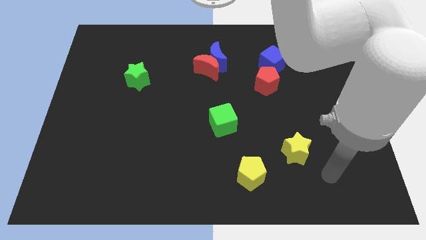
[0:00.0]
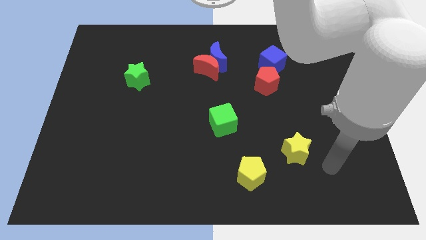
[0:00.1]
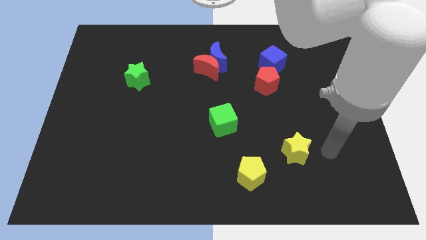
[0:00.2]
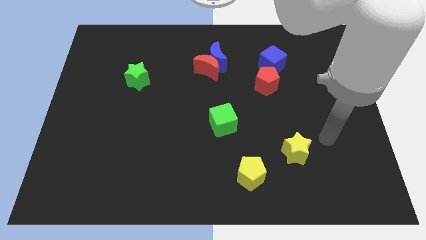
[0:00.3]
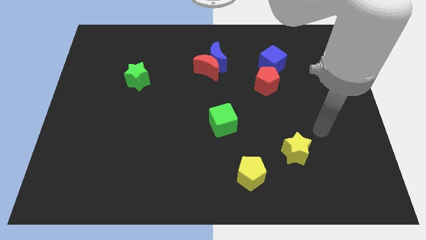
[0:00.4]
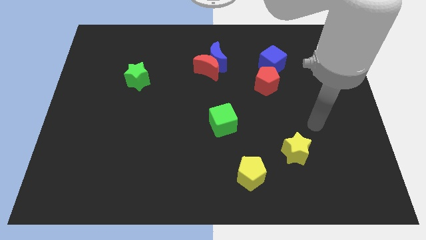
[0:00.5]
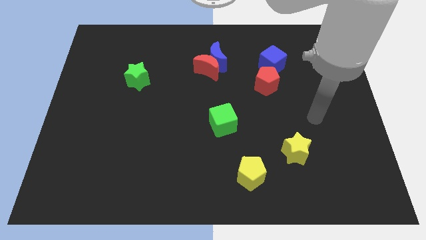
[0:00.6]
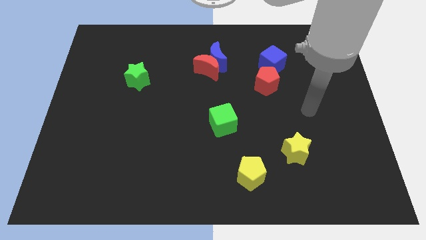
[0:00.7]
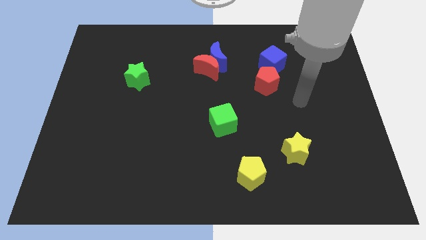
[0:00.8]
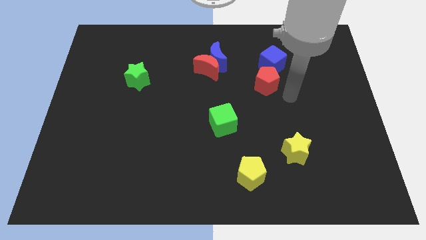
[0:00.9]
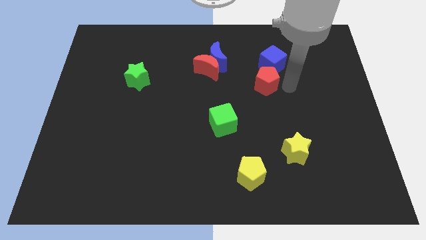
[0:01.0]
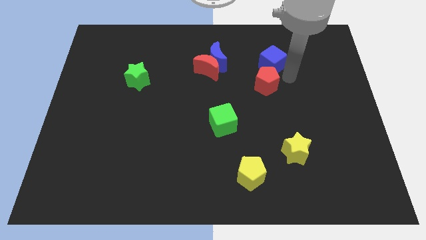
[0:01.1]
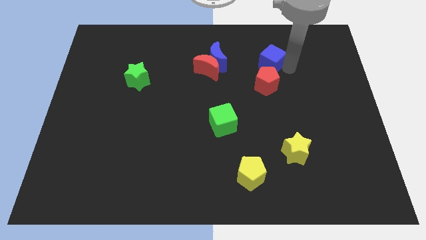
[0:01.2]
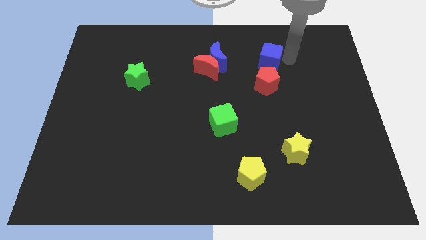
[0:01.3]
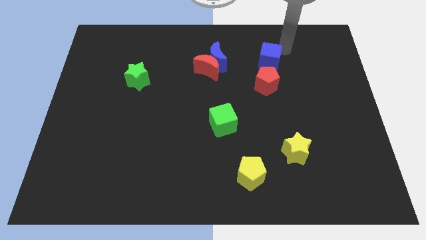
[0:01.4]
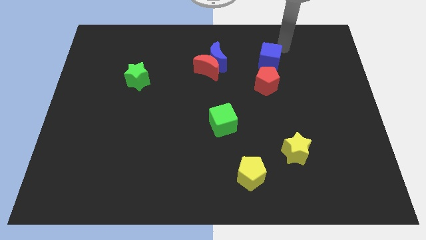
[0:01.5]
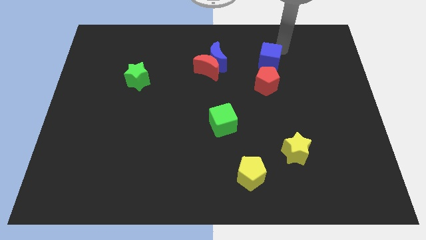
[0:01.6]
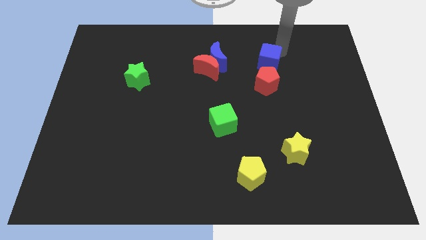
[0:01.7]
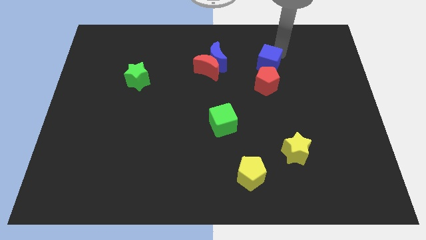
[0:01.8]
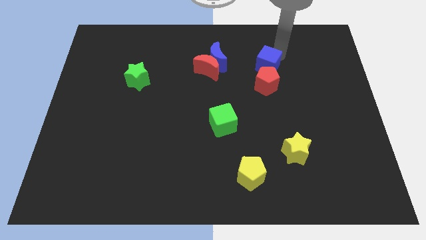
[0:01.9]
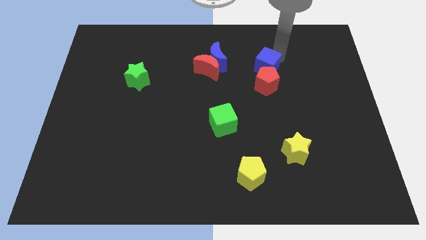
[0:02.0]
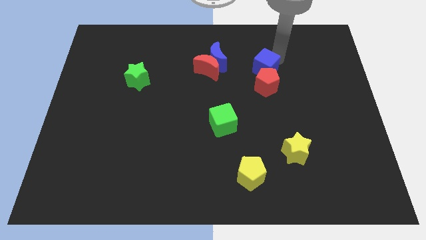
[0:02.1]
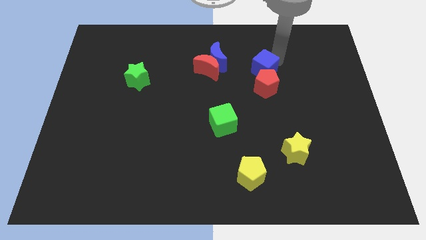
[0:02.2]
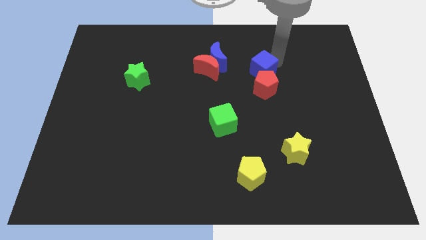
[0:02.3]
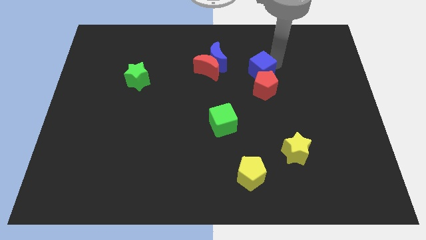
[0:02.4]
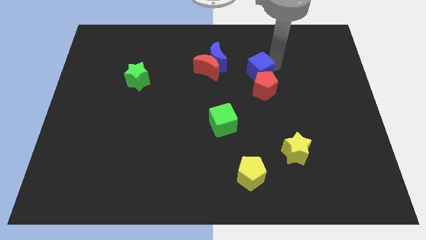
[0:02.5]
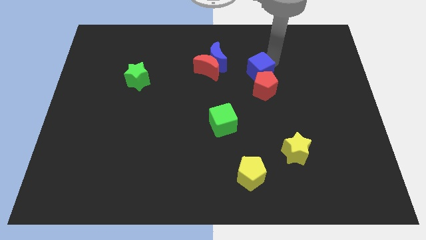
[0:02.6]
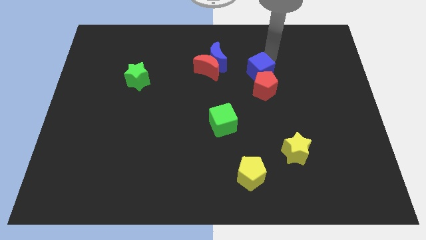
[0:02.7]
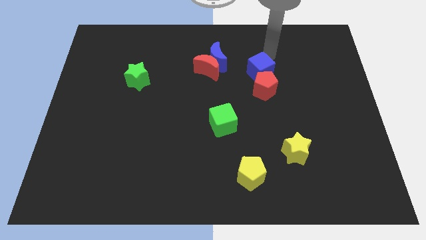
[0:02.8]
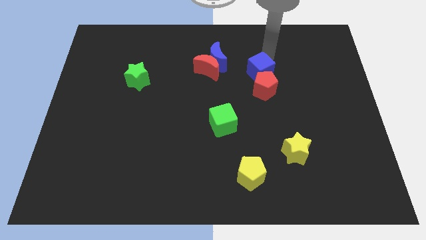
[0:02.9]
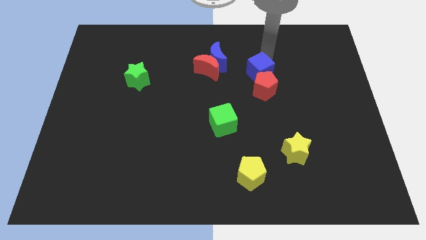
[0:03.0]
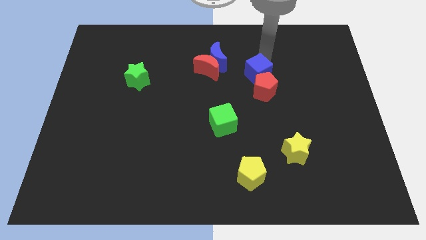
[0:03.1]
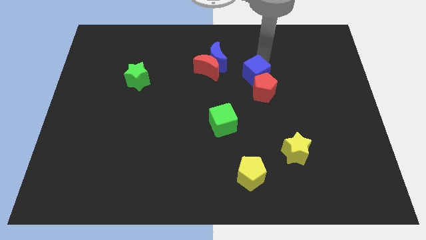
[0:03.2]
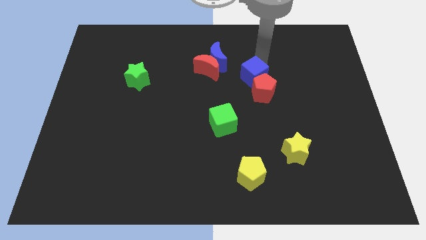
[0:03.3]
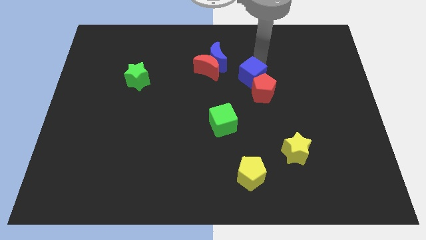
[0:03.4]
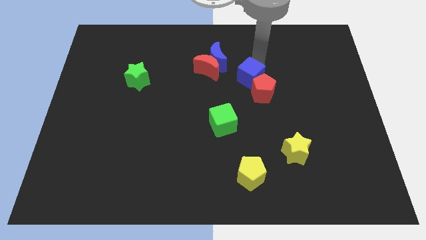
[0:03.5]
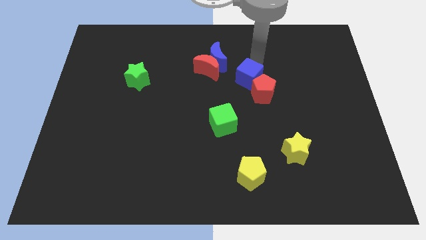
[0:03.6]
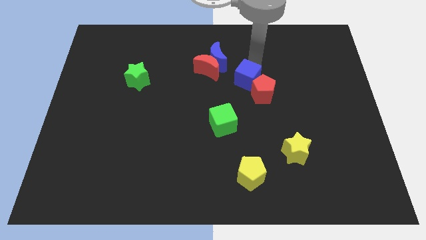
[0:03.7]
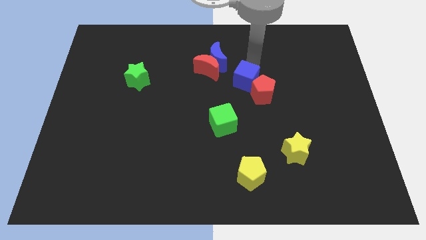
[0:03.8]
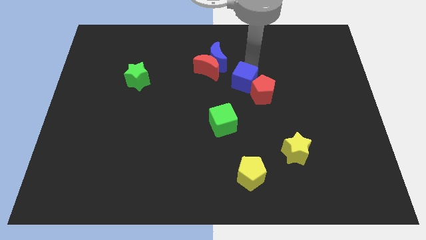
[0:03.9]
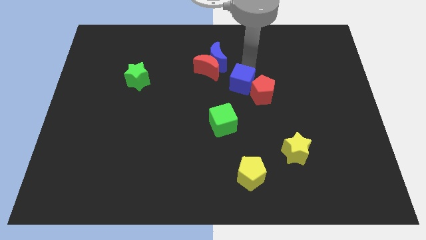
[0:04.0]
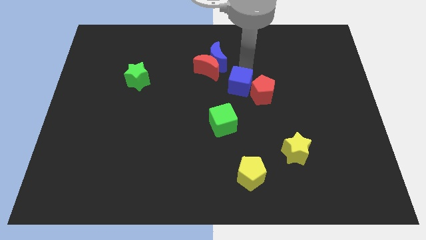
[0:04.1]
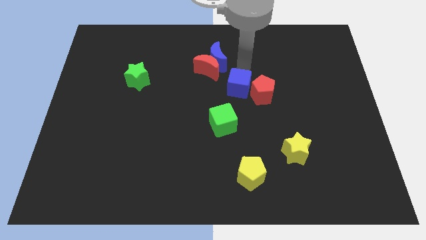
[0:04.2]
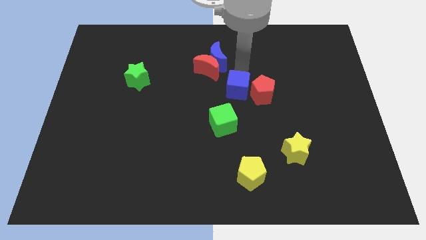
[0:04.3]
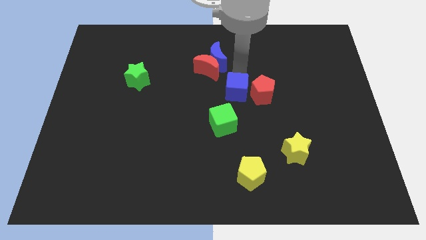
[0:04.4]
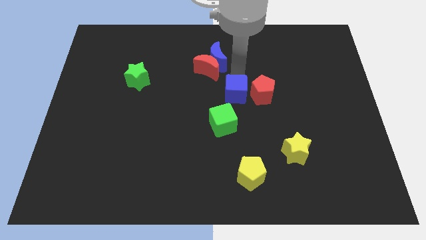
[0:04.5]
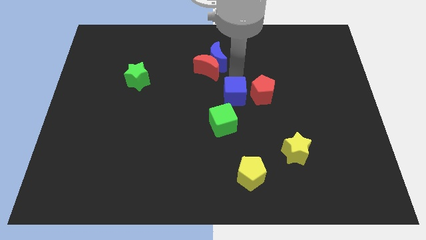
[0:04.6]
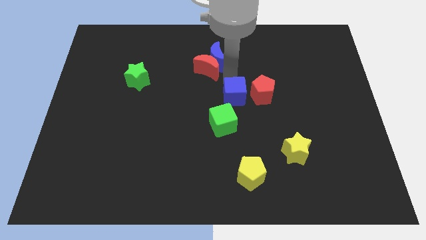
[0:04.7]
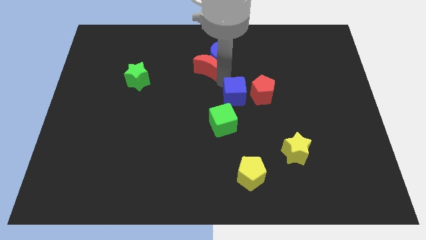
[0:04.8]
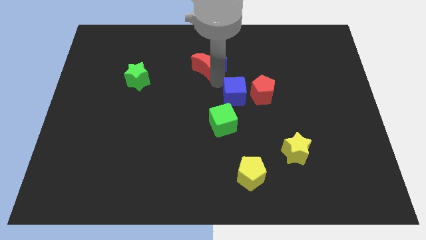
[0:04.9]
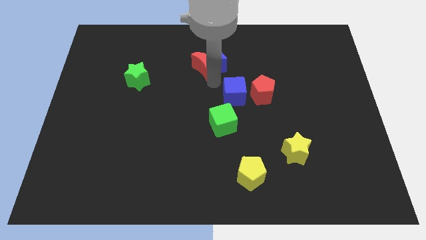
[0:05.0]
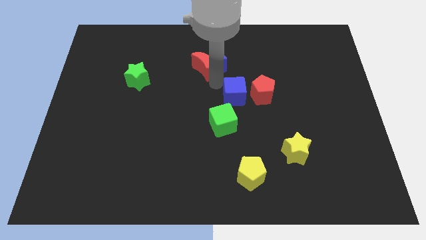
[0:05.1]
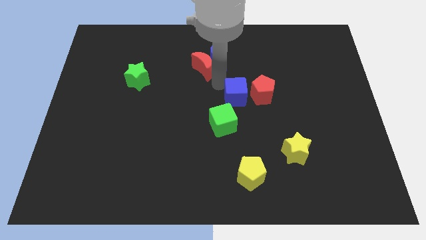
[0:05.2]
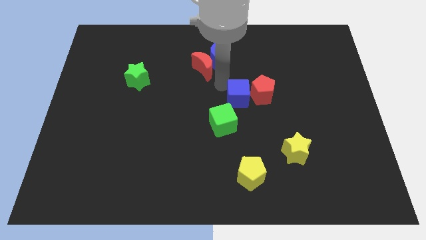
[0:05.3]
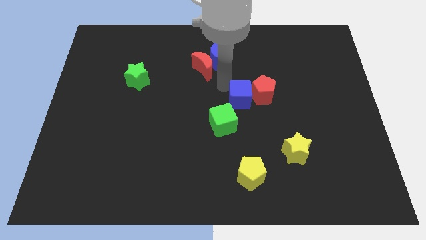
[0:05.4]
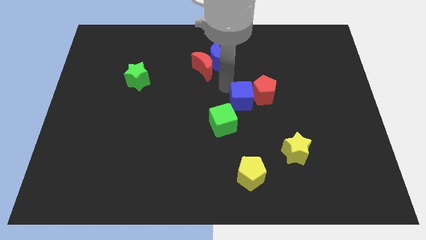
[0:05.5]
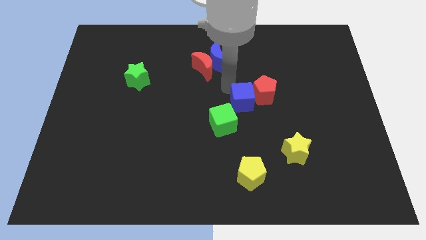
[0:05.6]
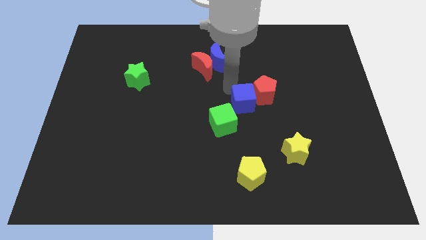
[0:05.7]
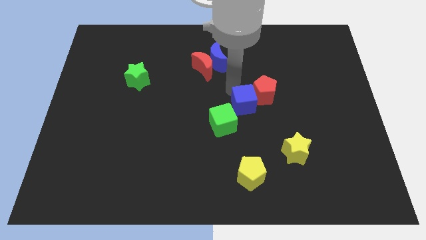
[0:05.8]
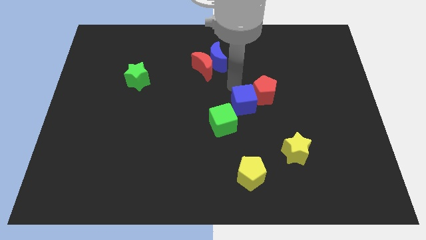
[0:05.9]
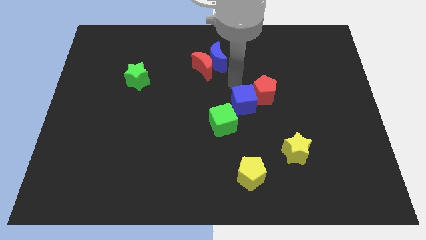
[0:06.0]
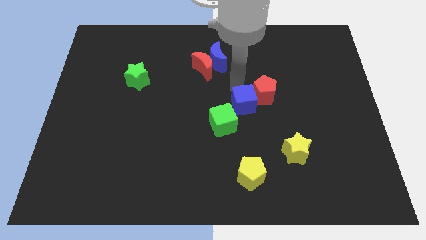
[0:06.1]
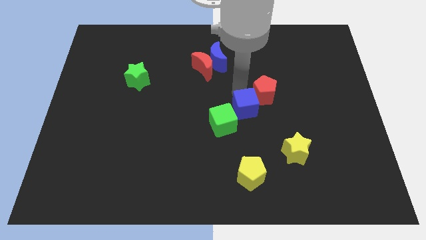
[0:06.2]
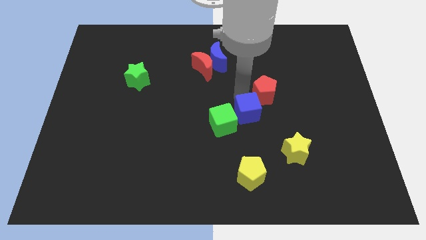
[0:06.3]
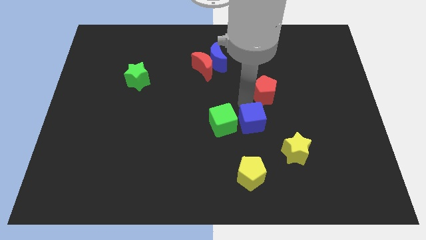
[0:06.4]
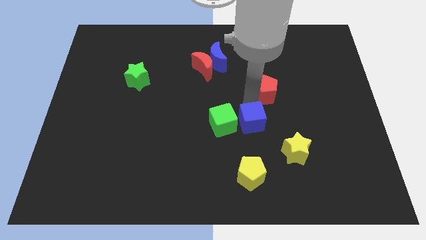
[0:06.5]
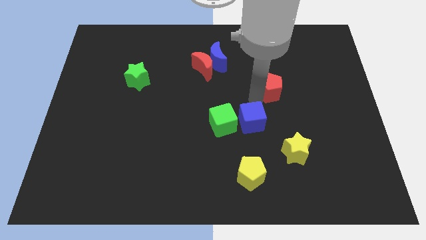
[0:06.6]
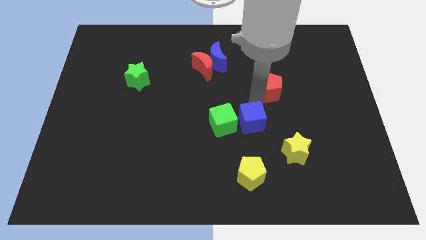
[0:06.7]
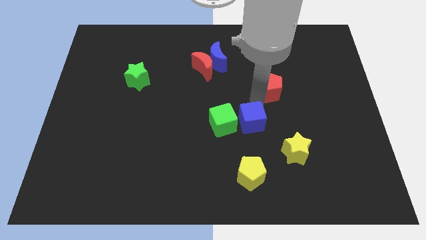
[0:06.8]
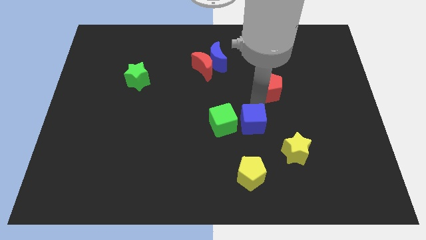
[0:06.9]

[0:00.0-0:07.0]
move the blue cube to the bottom right side of the green cube
